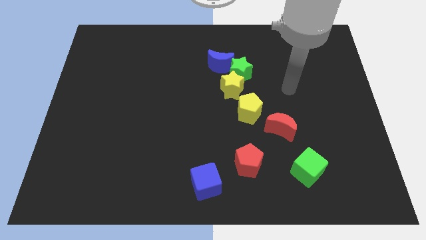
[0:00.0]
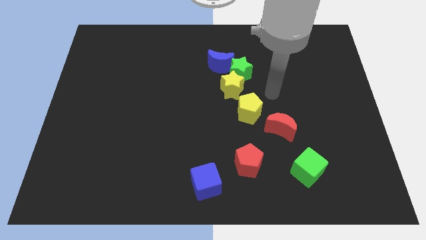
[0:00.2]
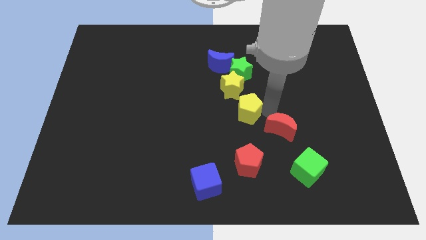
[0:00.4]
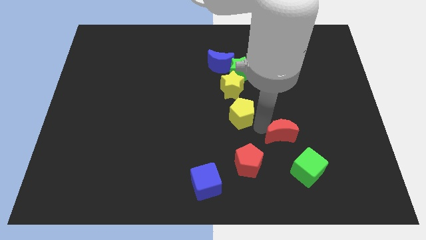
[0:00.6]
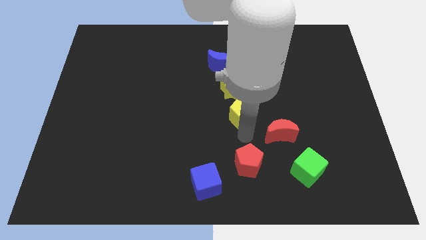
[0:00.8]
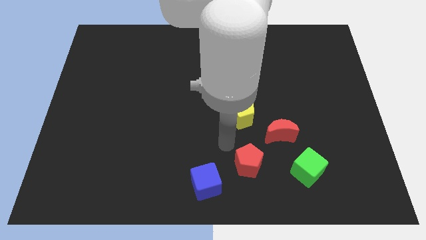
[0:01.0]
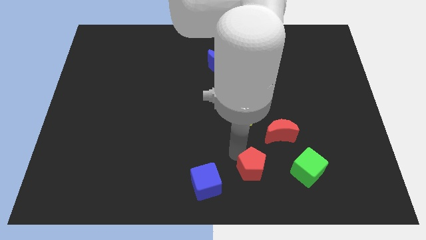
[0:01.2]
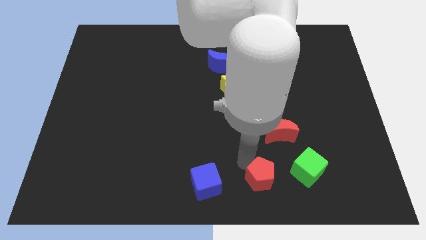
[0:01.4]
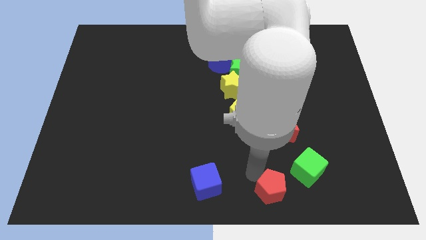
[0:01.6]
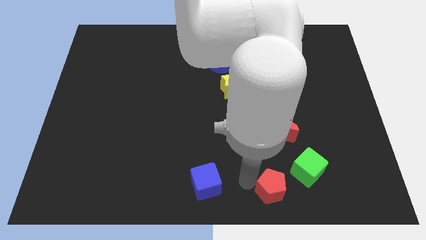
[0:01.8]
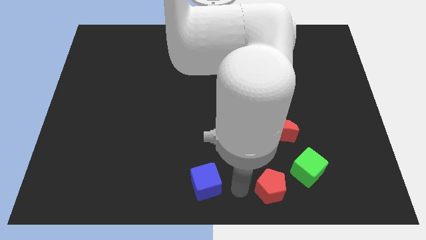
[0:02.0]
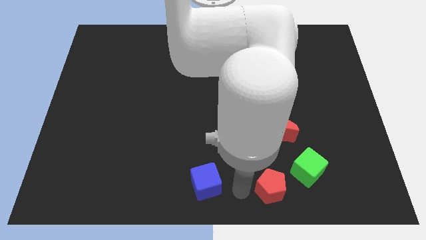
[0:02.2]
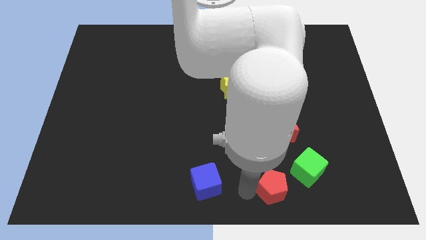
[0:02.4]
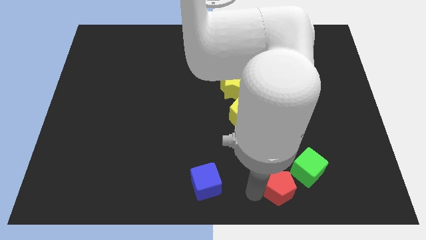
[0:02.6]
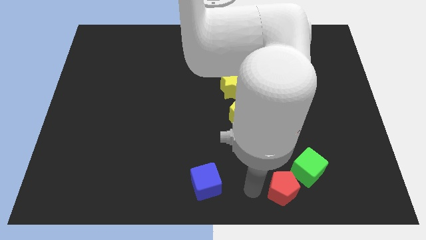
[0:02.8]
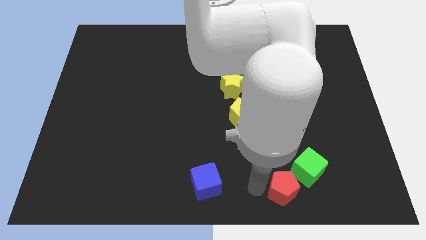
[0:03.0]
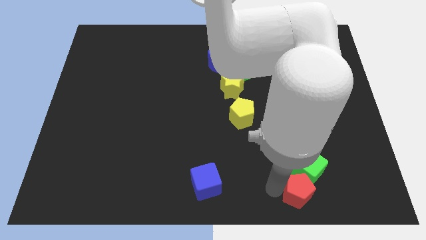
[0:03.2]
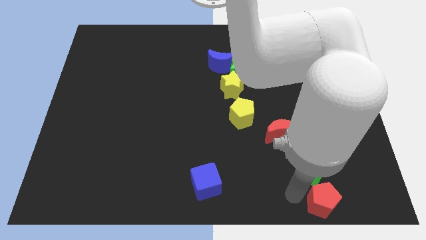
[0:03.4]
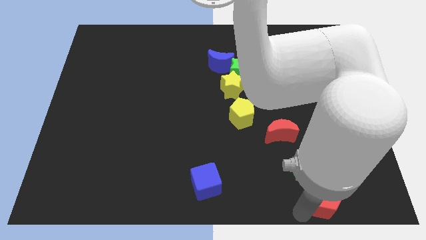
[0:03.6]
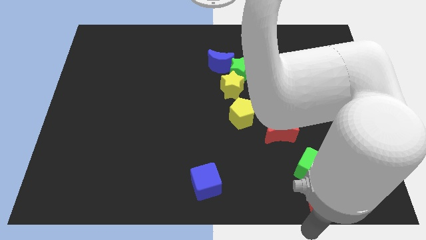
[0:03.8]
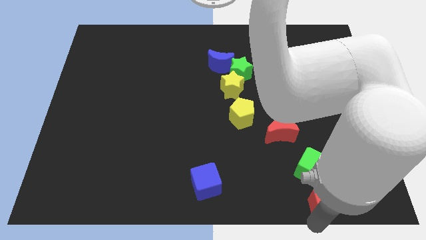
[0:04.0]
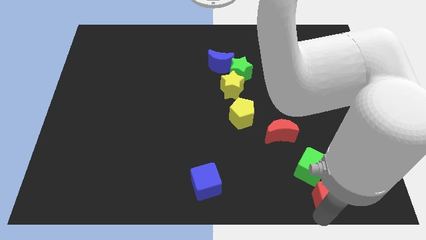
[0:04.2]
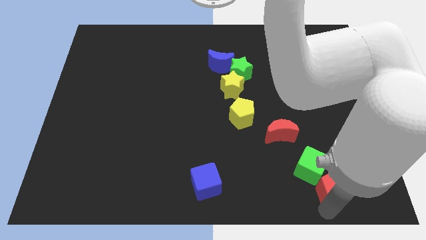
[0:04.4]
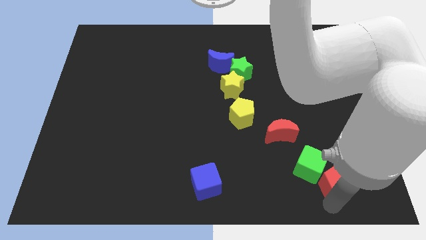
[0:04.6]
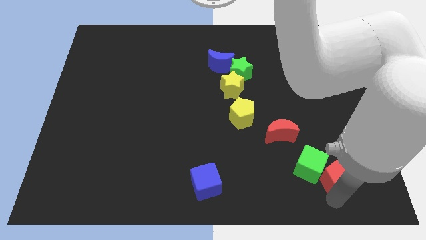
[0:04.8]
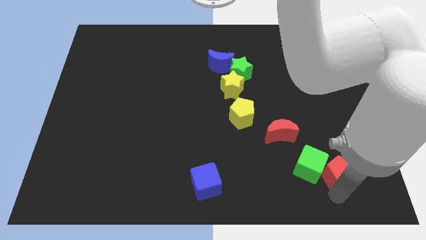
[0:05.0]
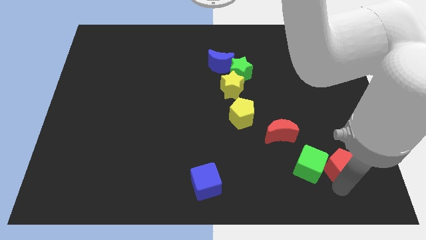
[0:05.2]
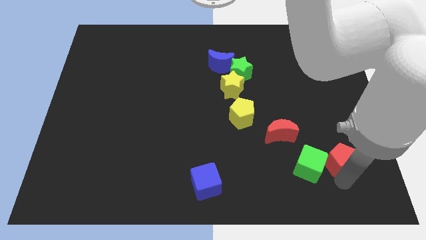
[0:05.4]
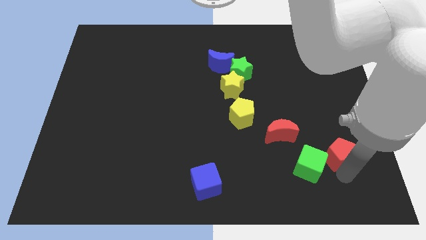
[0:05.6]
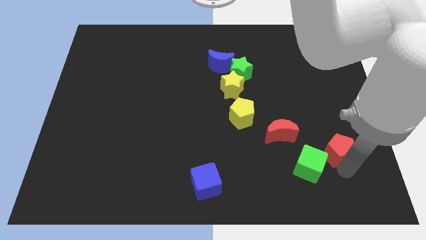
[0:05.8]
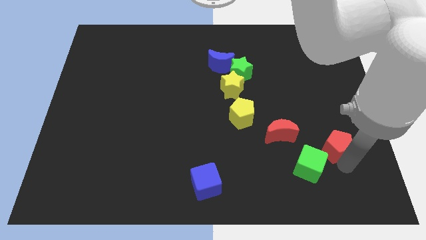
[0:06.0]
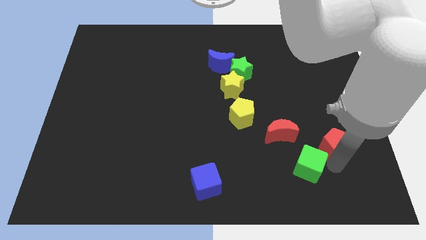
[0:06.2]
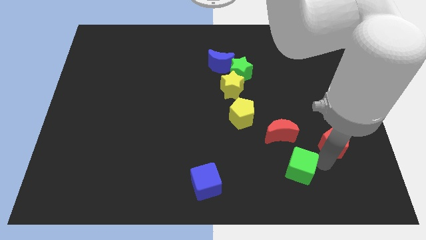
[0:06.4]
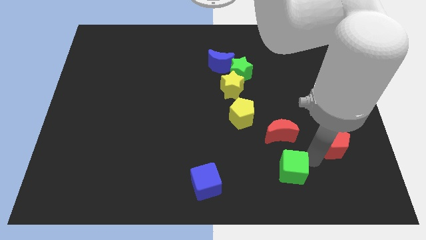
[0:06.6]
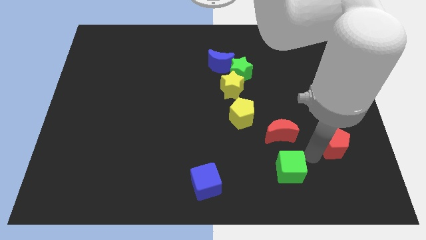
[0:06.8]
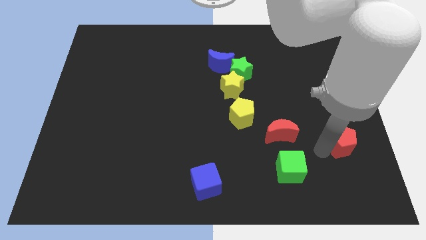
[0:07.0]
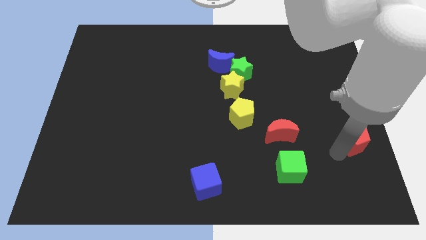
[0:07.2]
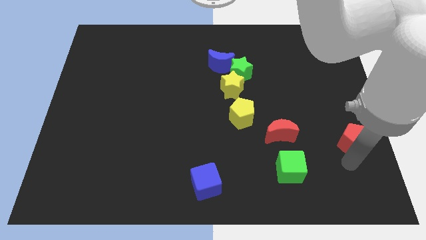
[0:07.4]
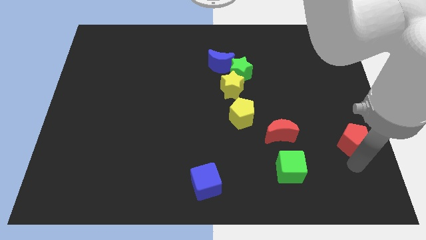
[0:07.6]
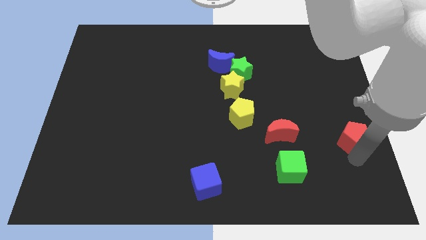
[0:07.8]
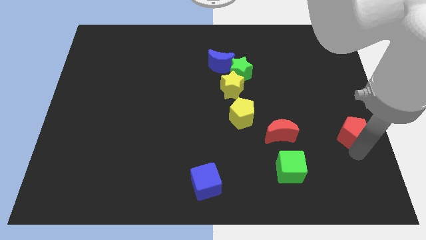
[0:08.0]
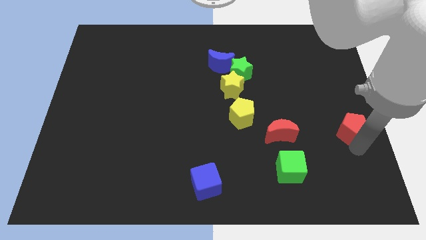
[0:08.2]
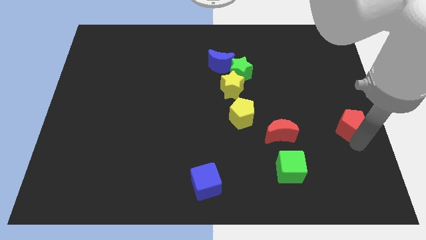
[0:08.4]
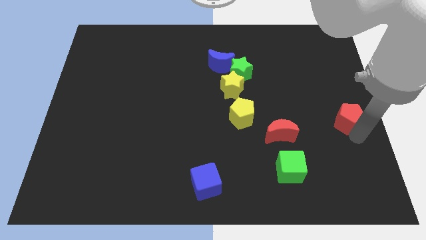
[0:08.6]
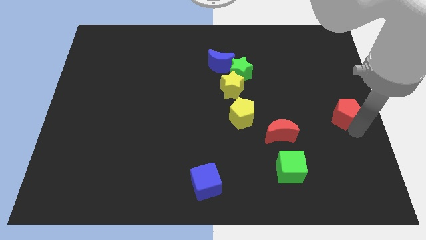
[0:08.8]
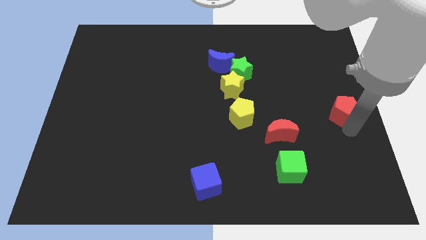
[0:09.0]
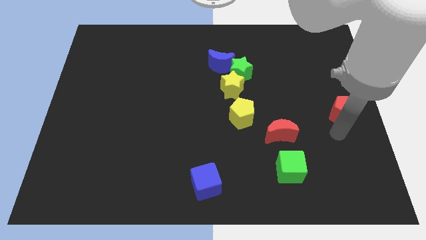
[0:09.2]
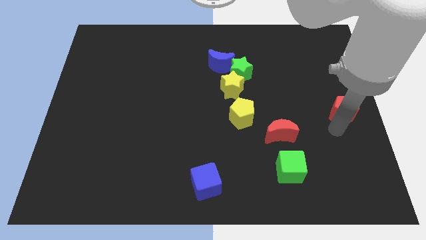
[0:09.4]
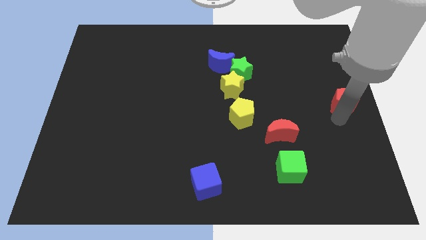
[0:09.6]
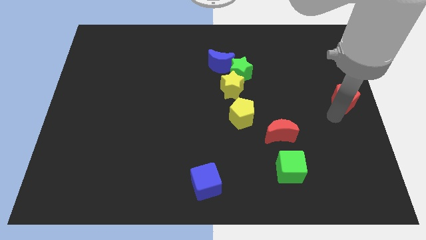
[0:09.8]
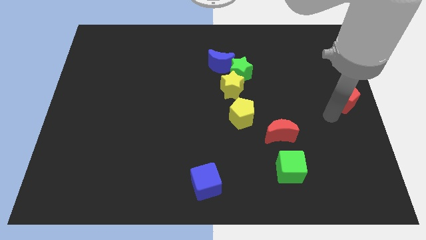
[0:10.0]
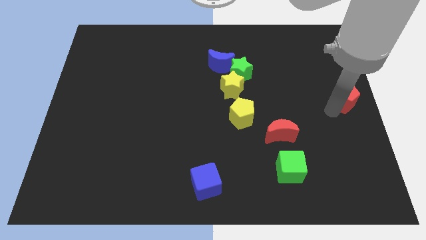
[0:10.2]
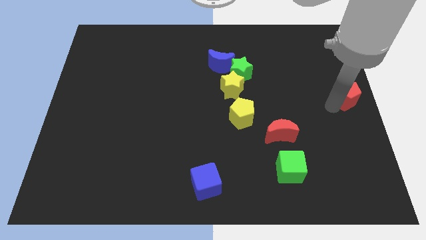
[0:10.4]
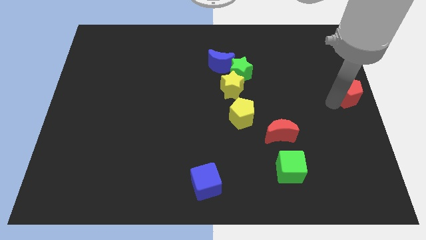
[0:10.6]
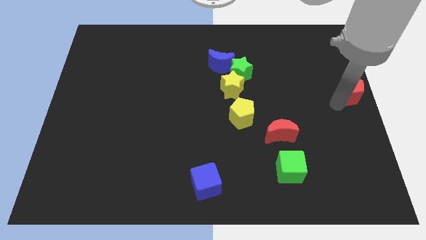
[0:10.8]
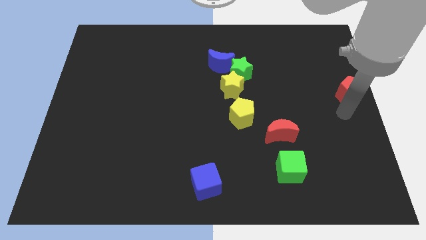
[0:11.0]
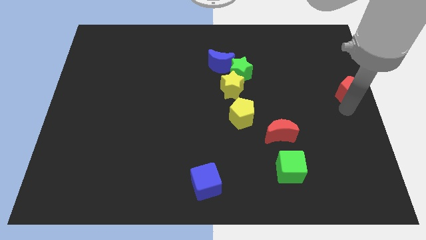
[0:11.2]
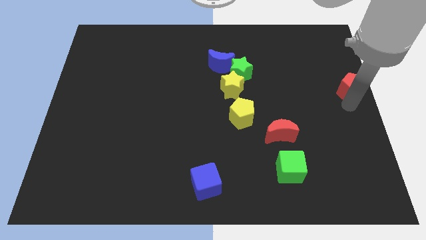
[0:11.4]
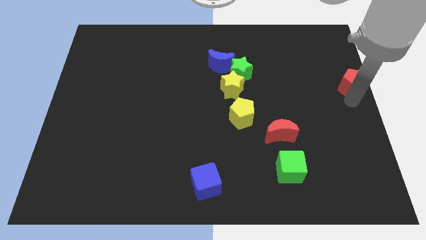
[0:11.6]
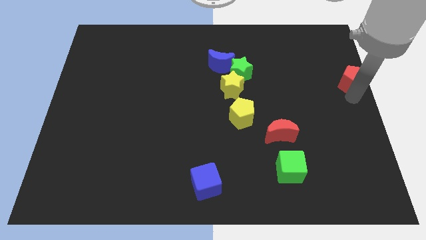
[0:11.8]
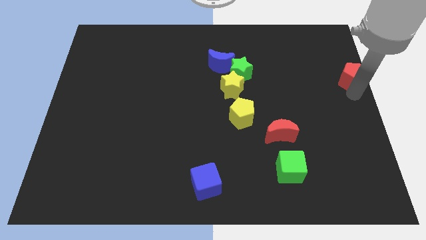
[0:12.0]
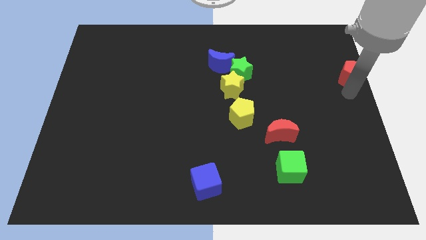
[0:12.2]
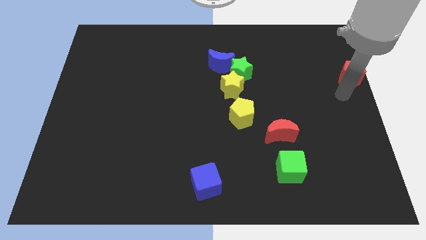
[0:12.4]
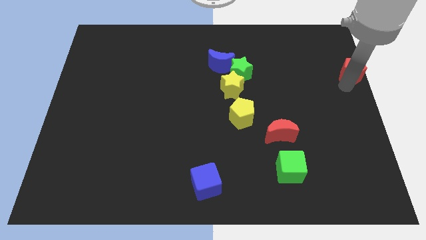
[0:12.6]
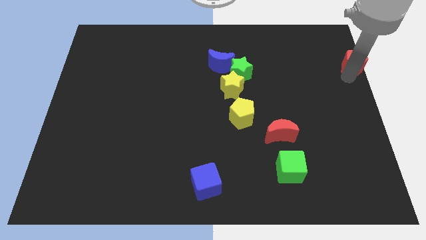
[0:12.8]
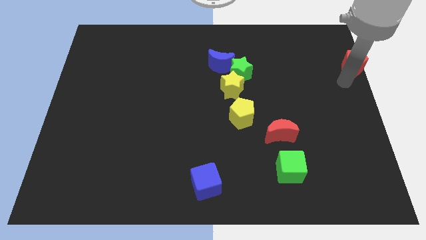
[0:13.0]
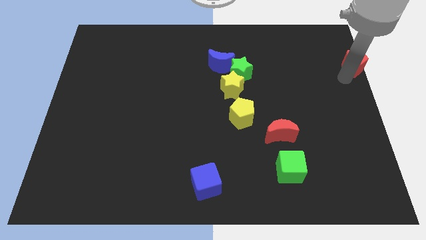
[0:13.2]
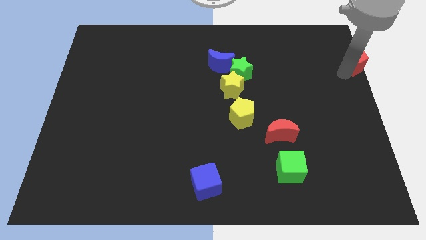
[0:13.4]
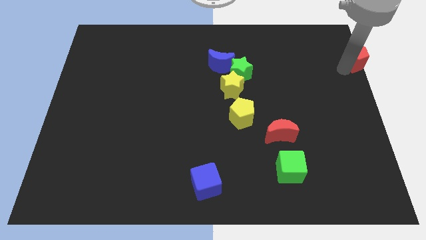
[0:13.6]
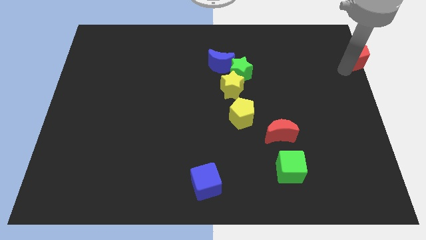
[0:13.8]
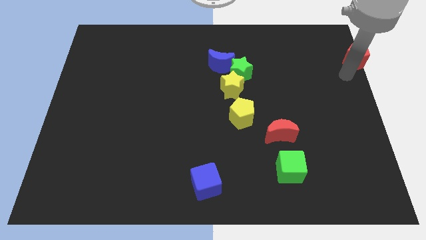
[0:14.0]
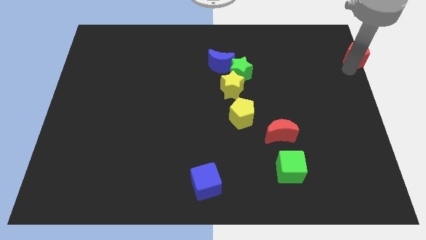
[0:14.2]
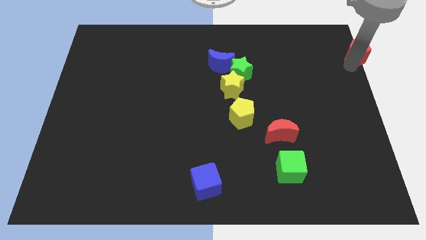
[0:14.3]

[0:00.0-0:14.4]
put the red pentagon to the top right of the board

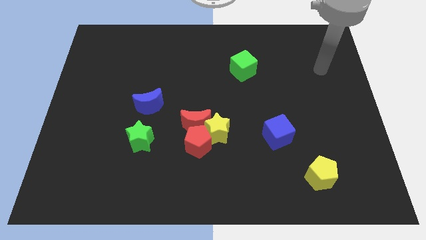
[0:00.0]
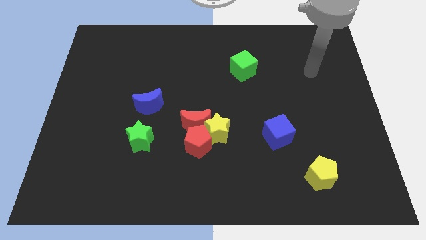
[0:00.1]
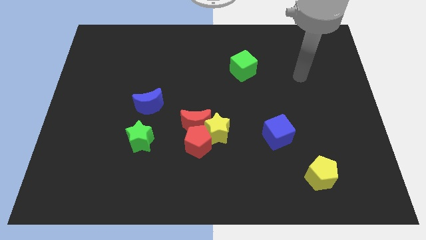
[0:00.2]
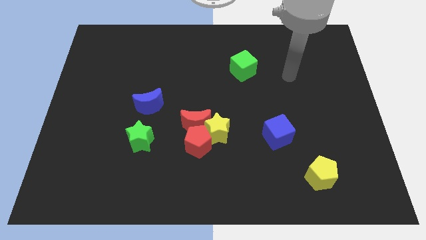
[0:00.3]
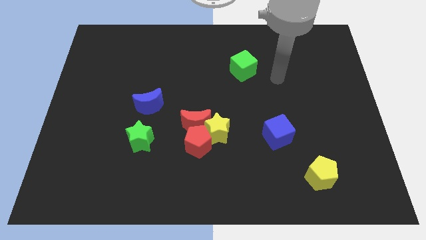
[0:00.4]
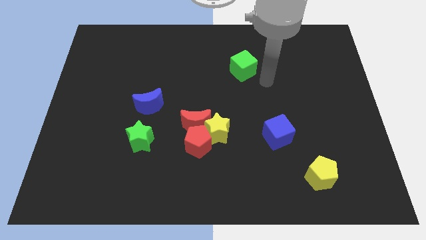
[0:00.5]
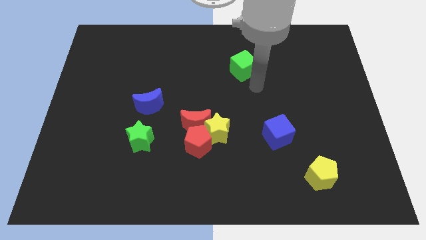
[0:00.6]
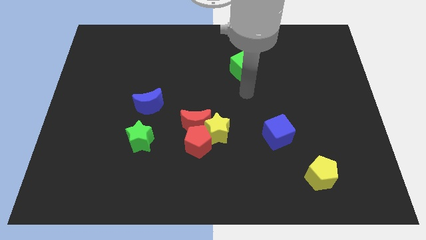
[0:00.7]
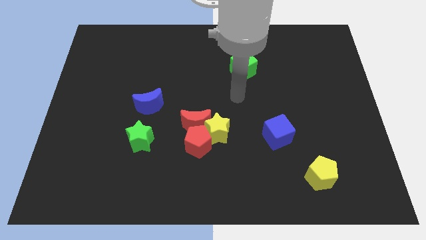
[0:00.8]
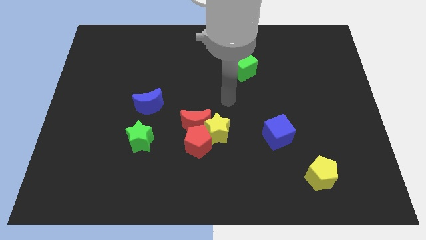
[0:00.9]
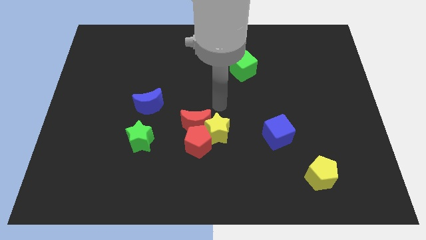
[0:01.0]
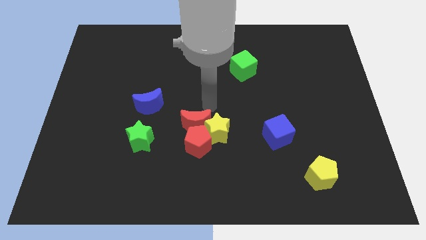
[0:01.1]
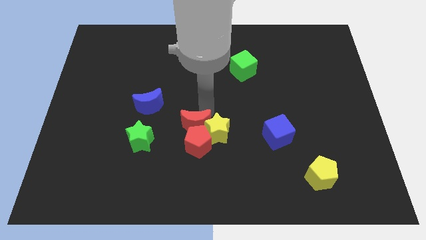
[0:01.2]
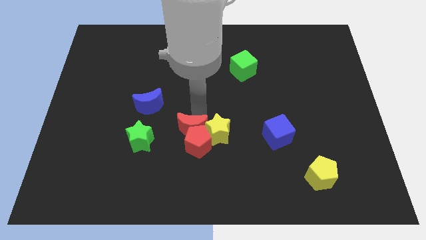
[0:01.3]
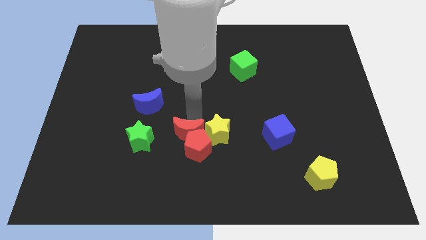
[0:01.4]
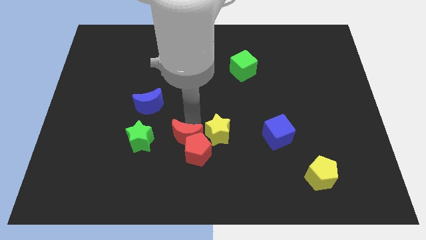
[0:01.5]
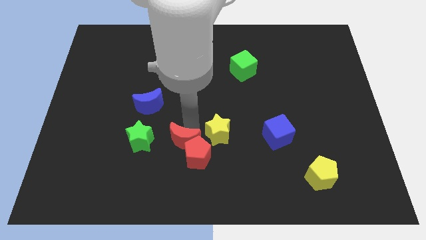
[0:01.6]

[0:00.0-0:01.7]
move the red pentagon to the bottom
